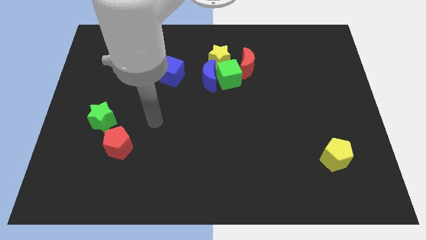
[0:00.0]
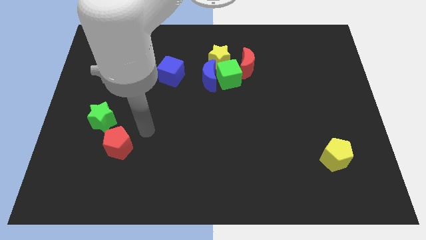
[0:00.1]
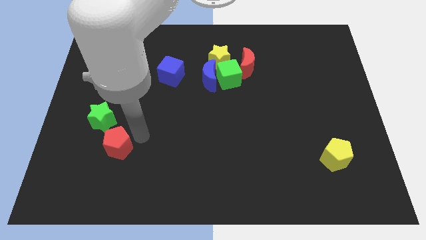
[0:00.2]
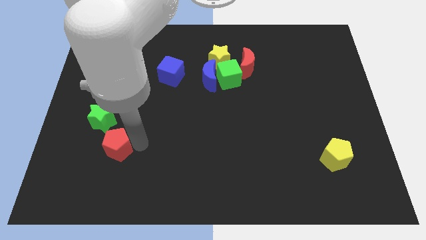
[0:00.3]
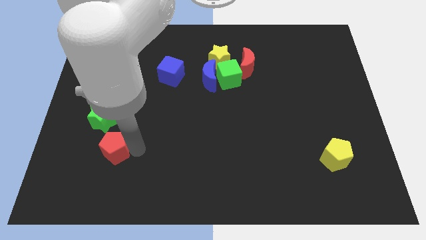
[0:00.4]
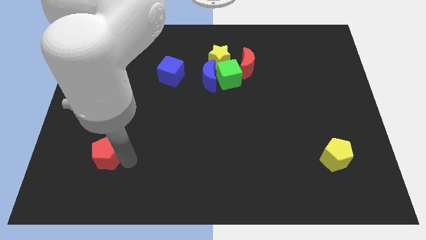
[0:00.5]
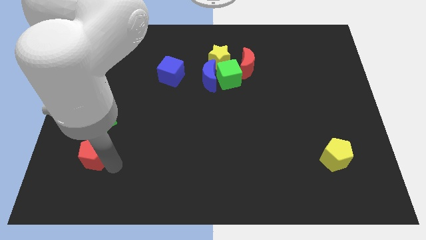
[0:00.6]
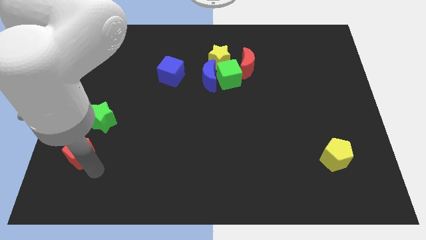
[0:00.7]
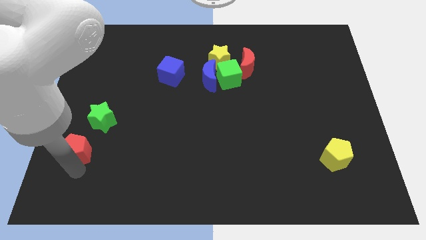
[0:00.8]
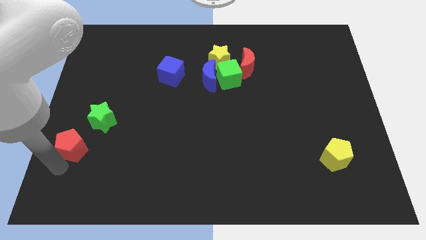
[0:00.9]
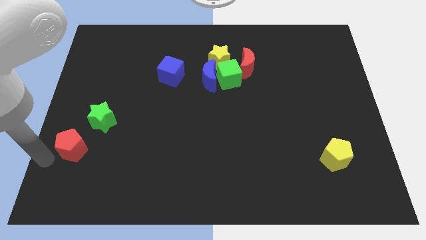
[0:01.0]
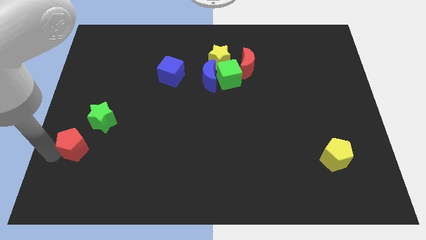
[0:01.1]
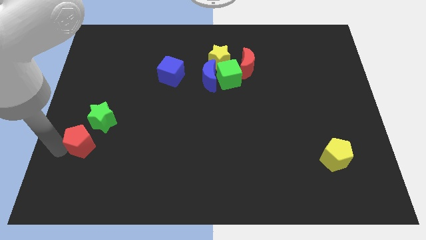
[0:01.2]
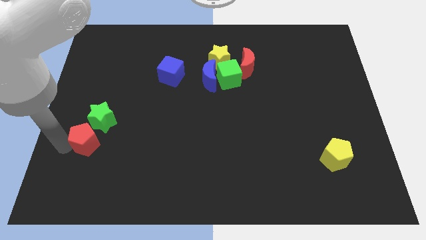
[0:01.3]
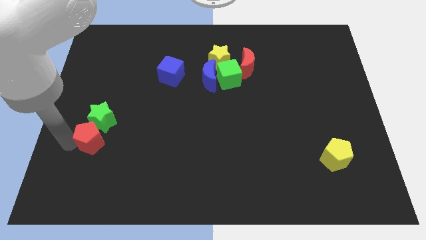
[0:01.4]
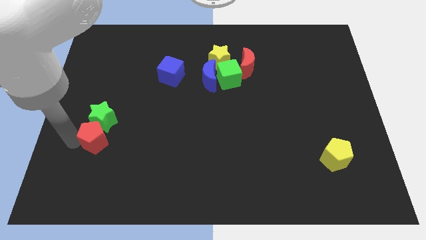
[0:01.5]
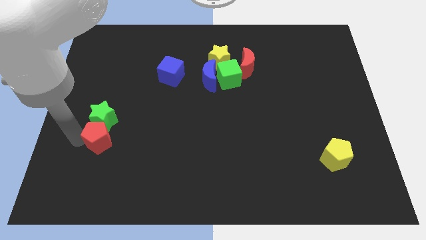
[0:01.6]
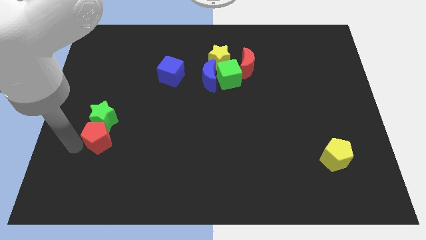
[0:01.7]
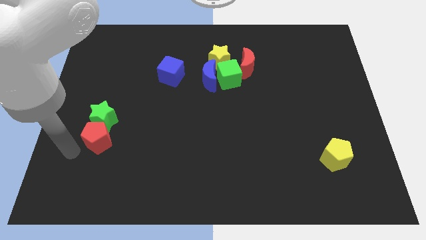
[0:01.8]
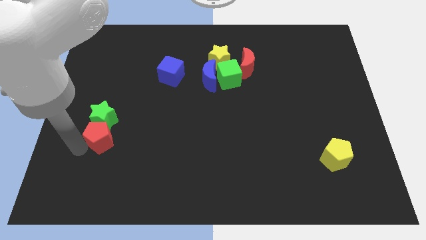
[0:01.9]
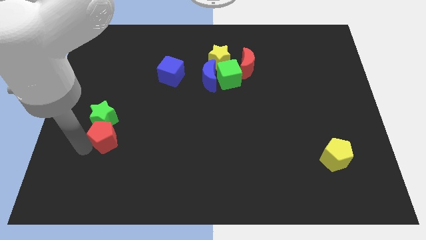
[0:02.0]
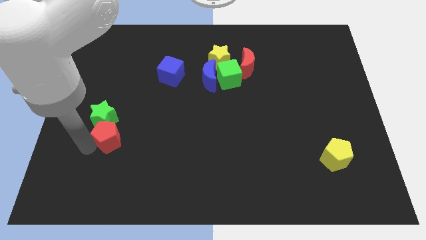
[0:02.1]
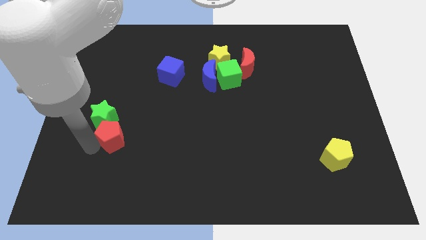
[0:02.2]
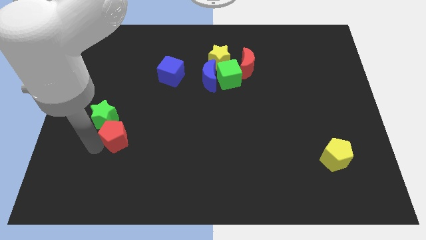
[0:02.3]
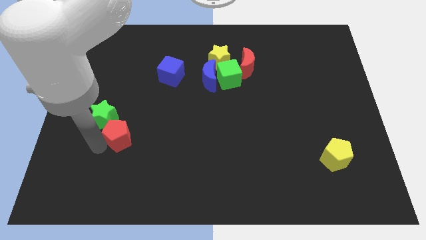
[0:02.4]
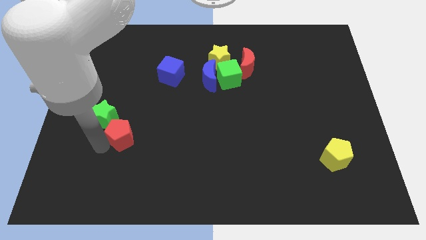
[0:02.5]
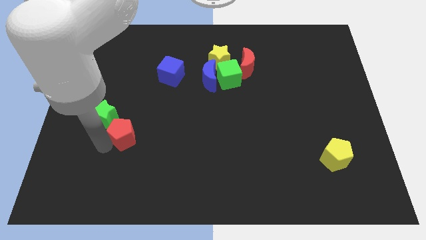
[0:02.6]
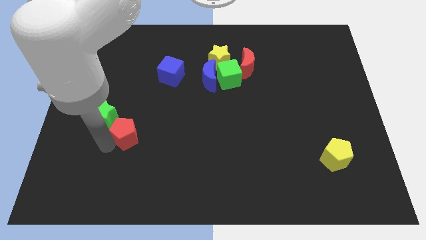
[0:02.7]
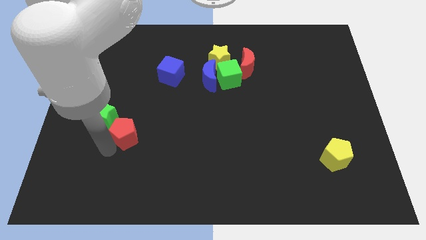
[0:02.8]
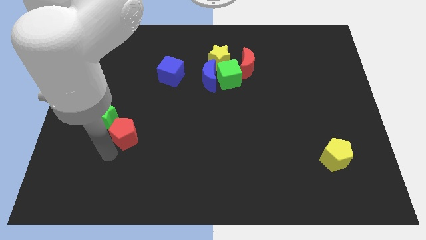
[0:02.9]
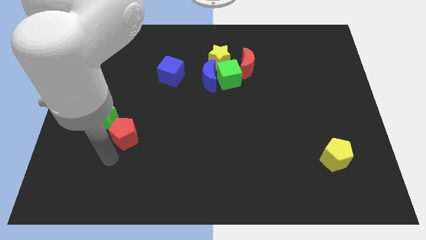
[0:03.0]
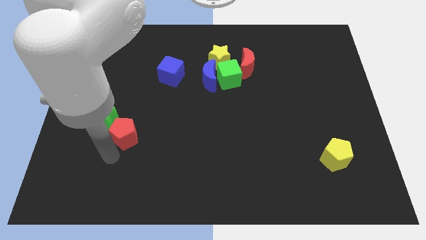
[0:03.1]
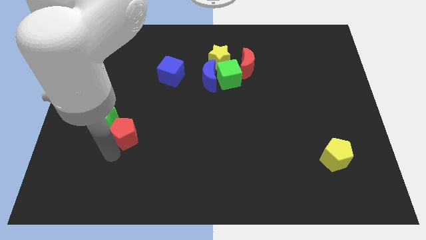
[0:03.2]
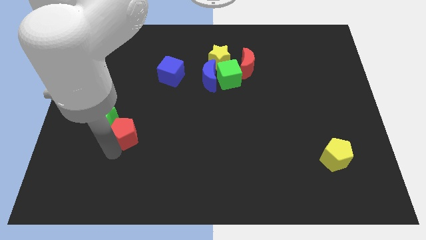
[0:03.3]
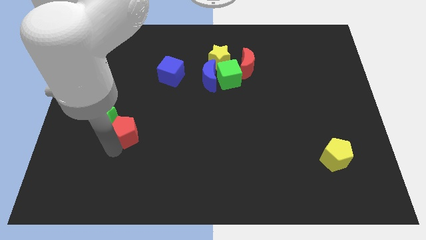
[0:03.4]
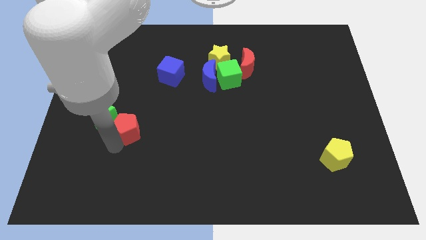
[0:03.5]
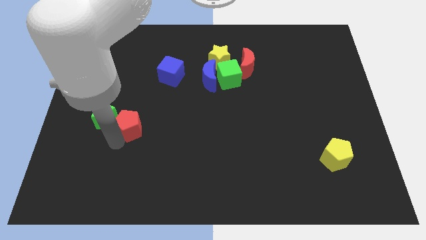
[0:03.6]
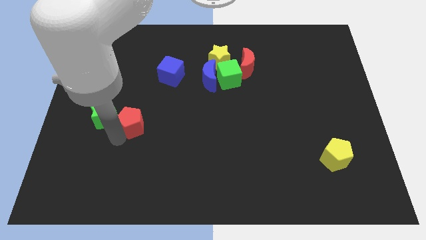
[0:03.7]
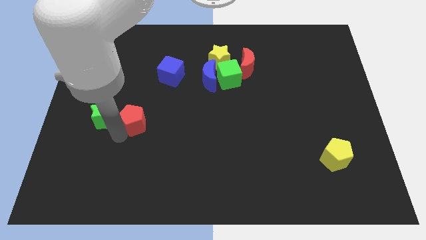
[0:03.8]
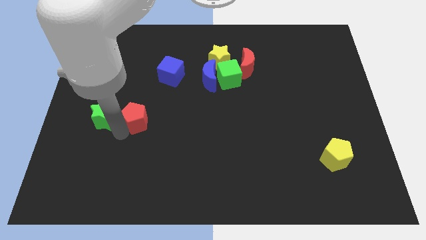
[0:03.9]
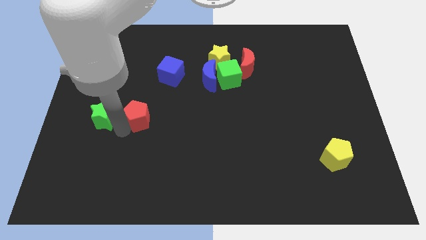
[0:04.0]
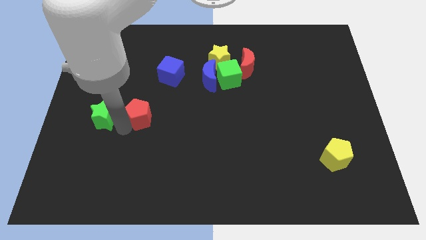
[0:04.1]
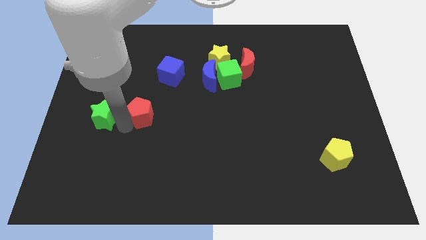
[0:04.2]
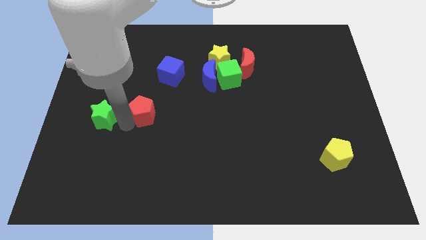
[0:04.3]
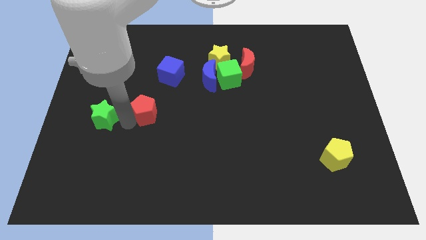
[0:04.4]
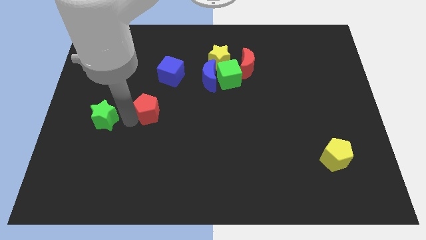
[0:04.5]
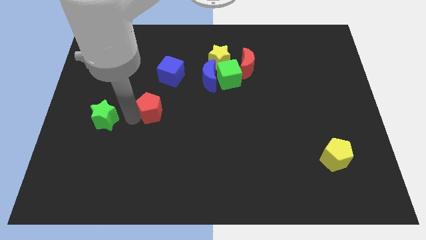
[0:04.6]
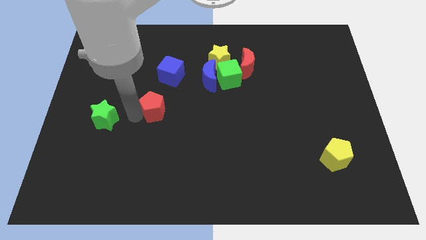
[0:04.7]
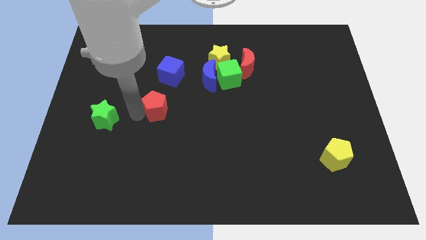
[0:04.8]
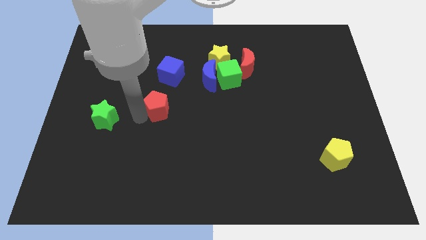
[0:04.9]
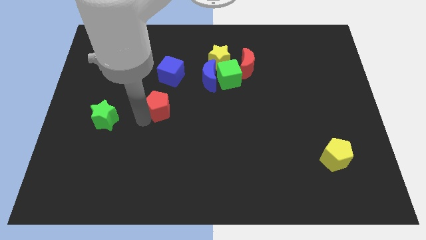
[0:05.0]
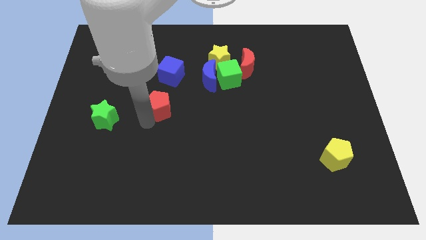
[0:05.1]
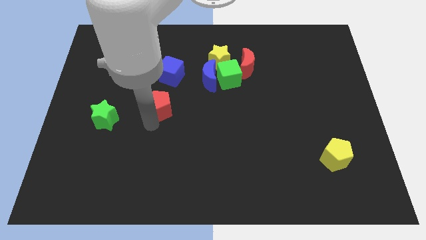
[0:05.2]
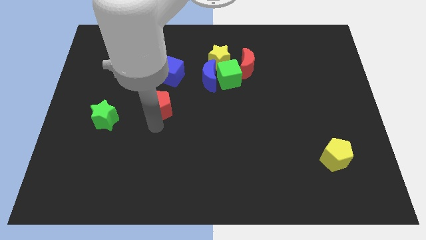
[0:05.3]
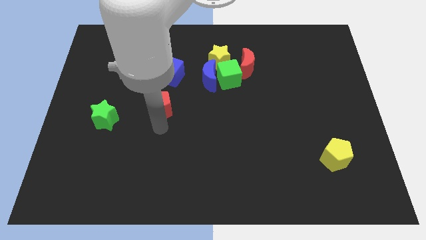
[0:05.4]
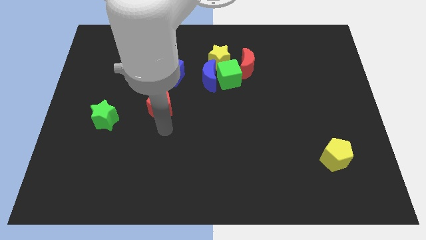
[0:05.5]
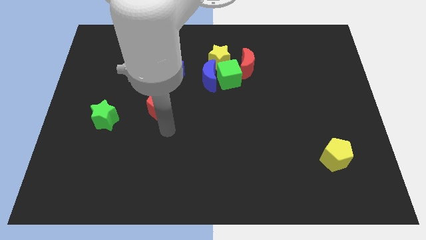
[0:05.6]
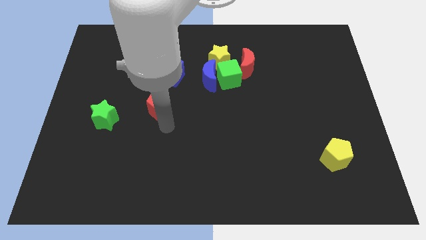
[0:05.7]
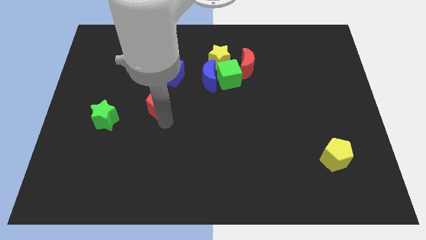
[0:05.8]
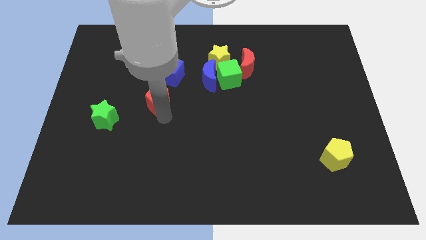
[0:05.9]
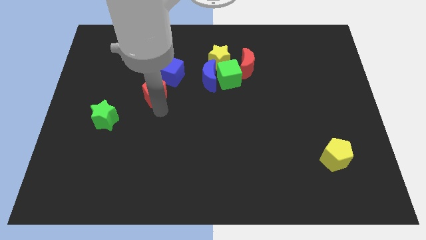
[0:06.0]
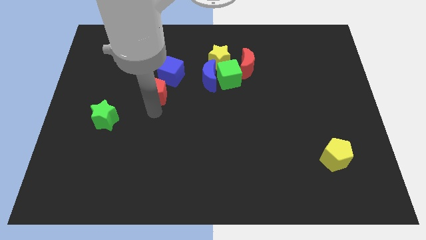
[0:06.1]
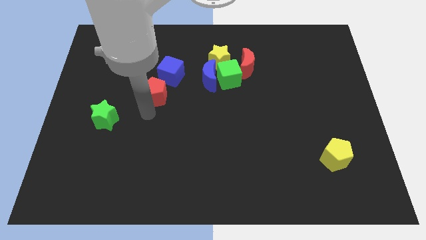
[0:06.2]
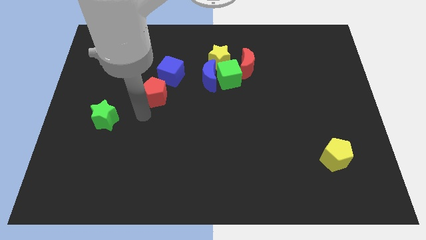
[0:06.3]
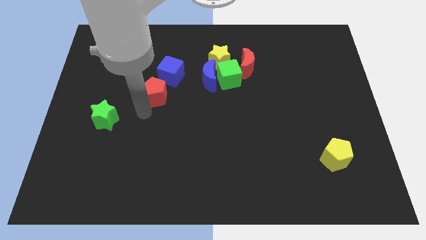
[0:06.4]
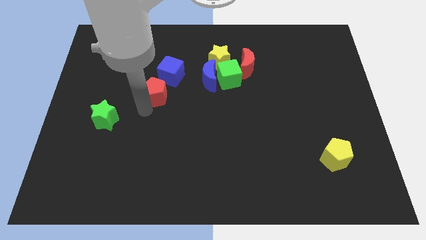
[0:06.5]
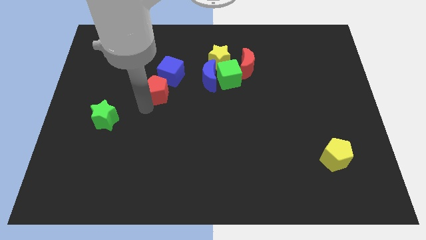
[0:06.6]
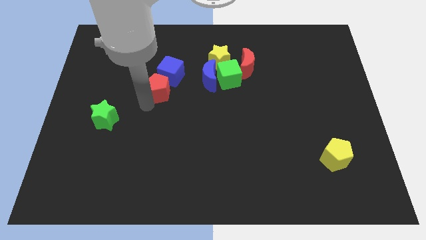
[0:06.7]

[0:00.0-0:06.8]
put the red pentagon to the blue cube

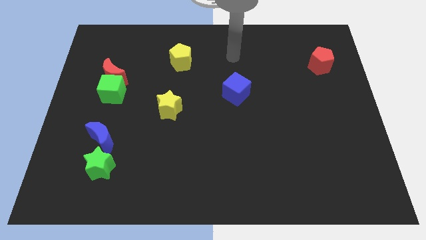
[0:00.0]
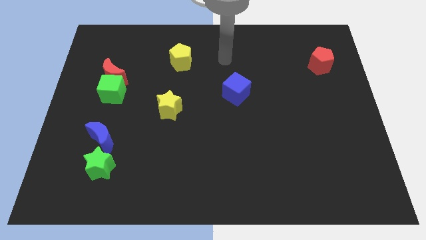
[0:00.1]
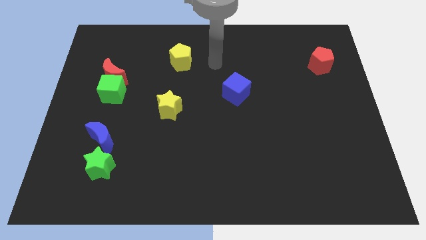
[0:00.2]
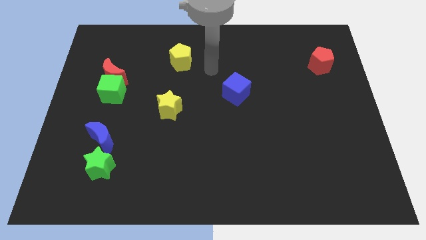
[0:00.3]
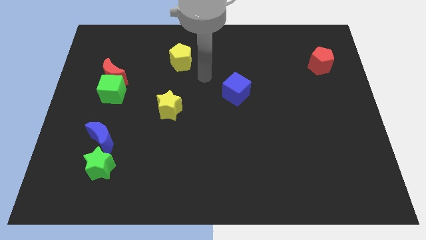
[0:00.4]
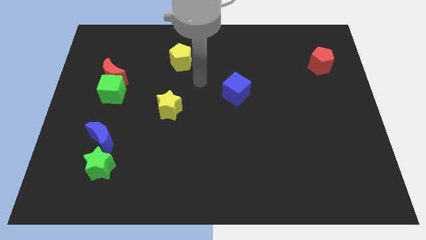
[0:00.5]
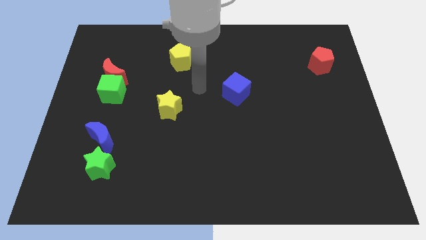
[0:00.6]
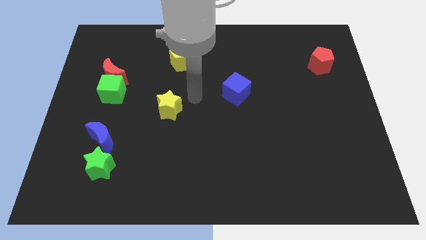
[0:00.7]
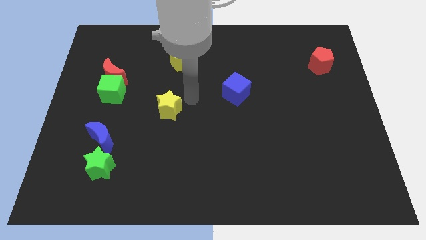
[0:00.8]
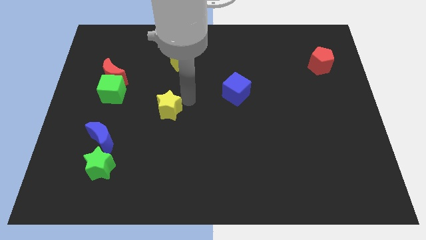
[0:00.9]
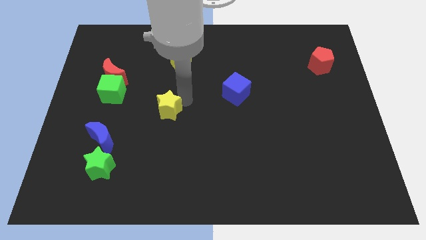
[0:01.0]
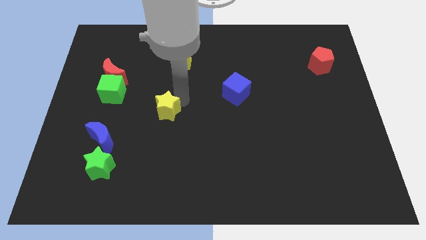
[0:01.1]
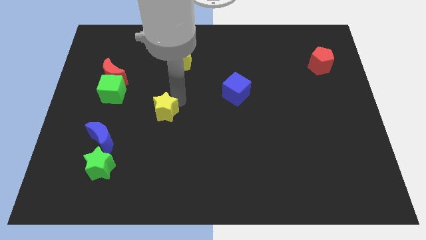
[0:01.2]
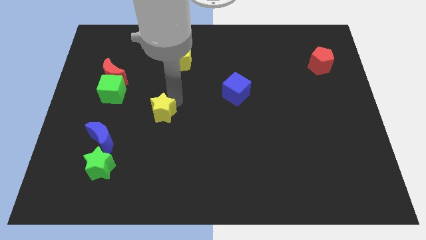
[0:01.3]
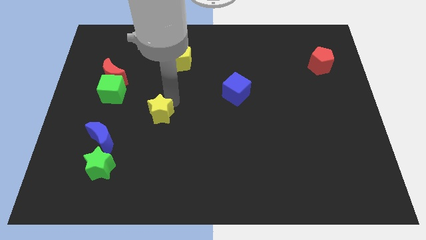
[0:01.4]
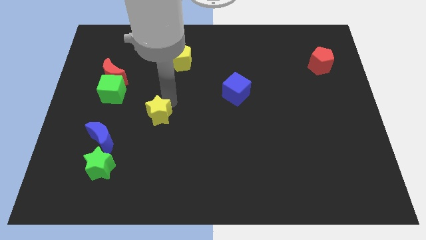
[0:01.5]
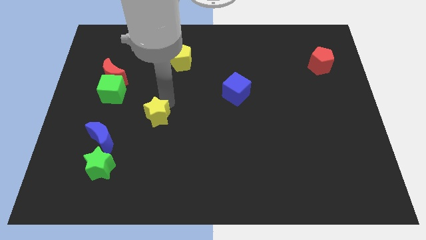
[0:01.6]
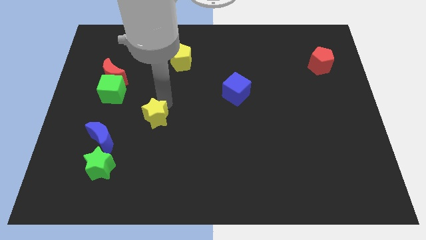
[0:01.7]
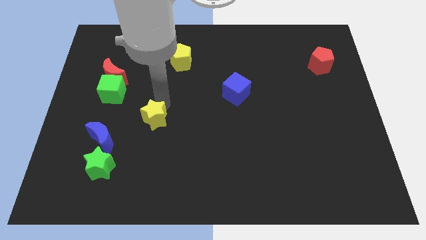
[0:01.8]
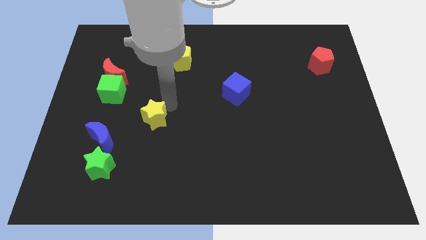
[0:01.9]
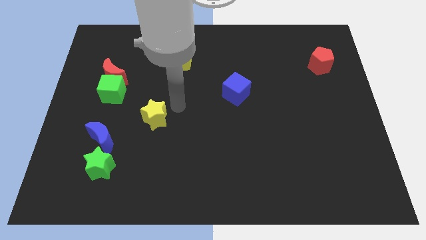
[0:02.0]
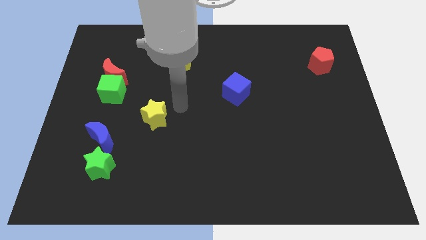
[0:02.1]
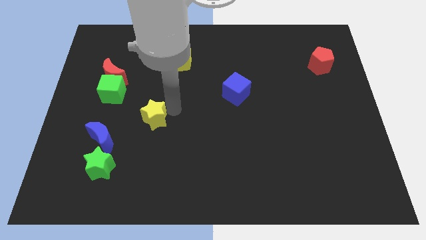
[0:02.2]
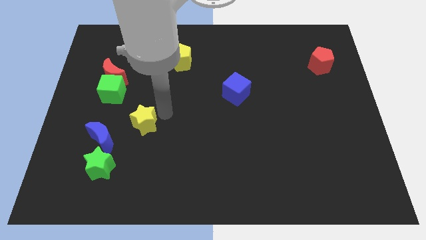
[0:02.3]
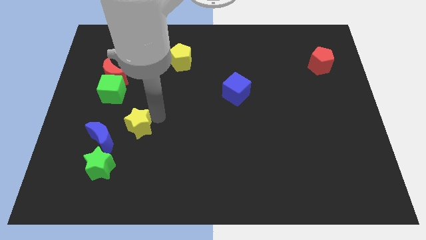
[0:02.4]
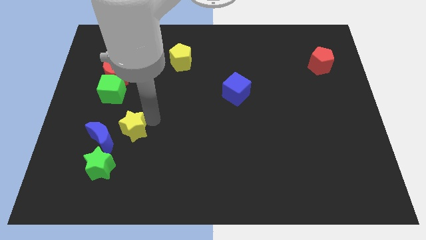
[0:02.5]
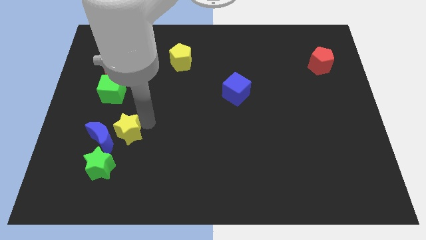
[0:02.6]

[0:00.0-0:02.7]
put the yellow star next to the blue moon
